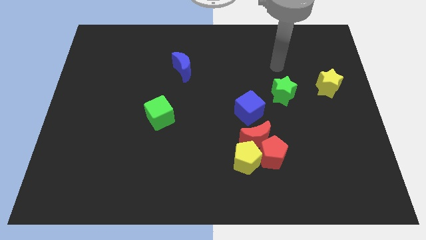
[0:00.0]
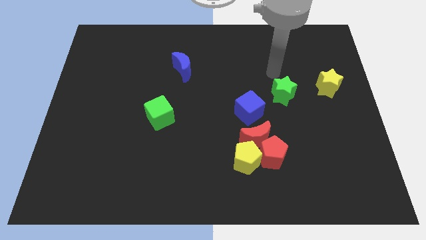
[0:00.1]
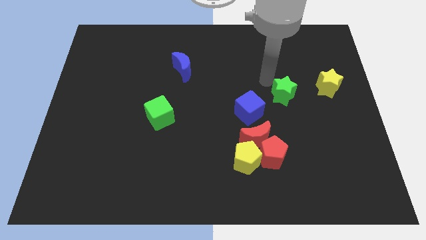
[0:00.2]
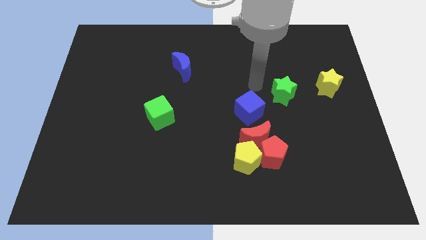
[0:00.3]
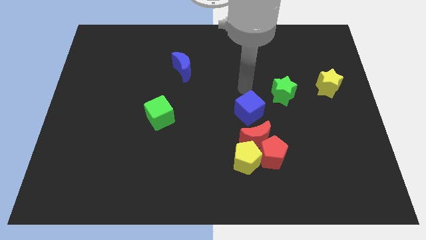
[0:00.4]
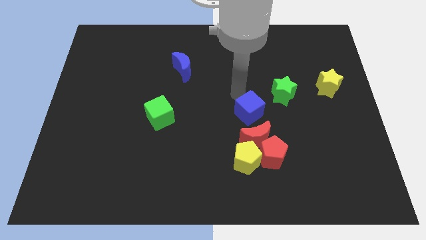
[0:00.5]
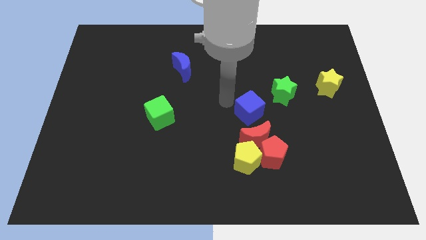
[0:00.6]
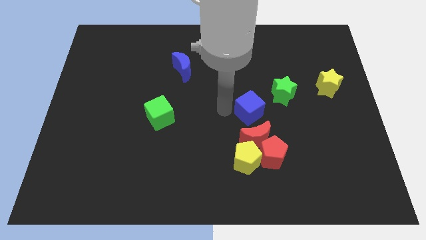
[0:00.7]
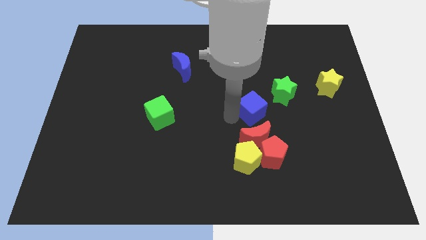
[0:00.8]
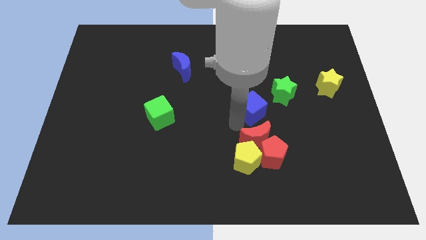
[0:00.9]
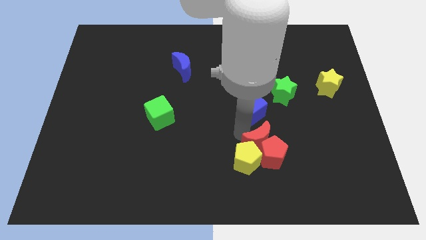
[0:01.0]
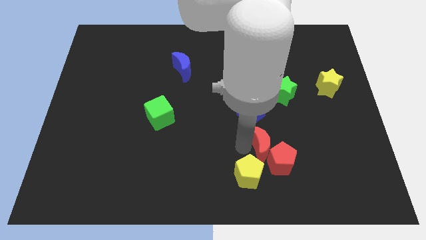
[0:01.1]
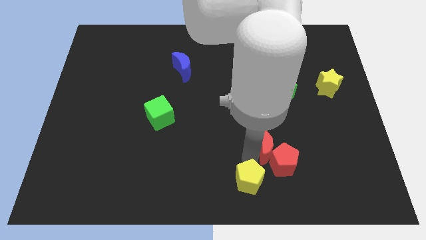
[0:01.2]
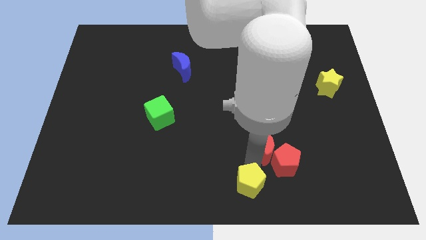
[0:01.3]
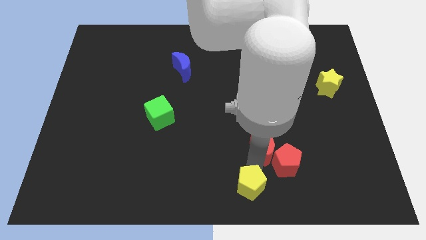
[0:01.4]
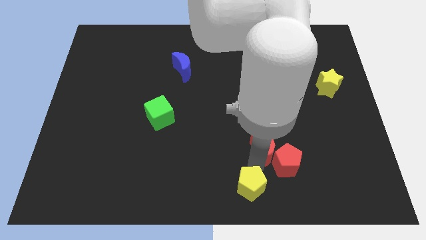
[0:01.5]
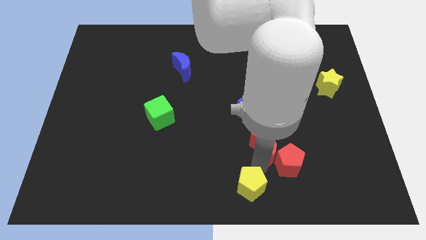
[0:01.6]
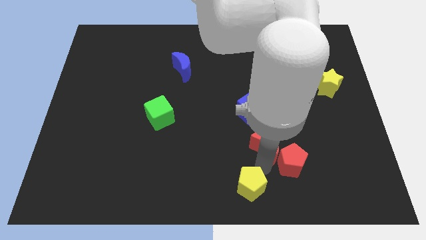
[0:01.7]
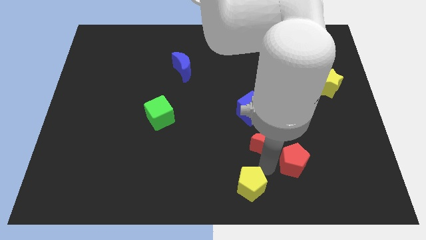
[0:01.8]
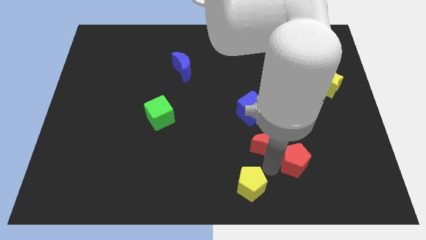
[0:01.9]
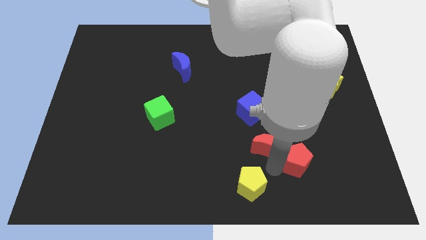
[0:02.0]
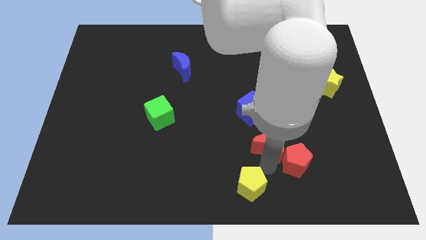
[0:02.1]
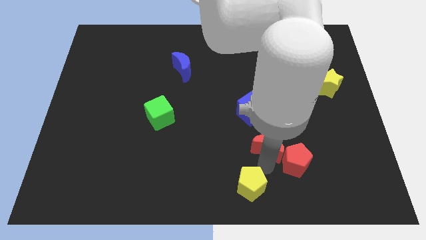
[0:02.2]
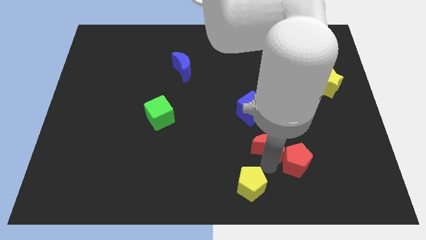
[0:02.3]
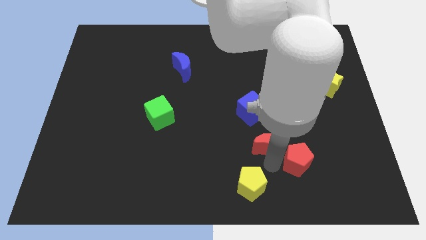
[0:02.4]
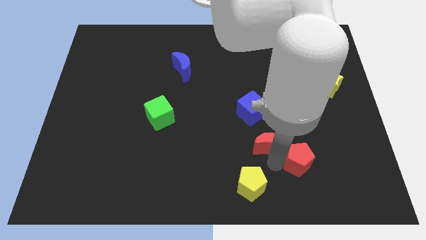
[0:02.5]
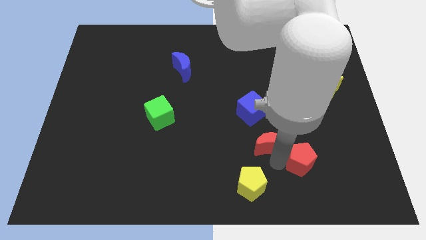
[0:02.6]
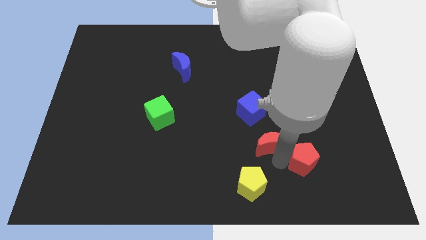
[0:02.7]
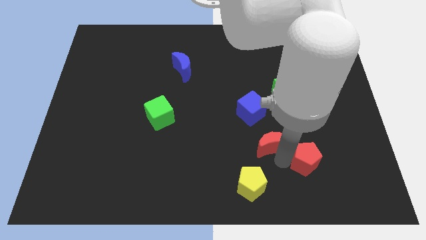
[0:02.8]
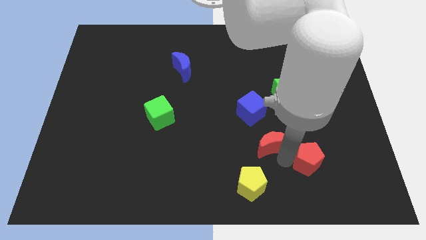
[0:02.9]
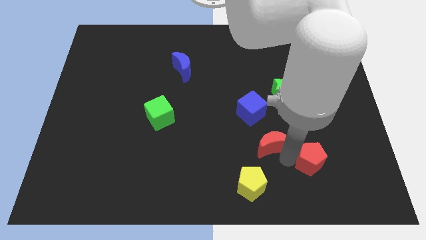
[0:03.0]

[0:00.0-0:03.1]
move the red pentagon away from the red moon and yellow pentagon

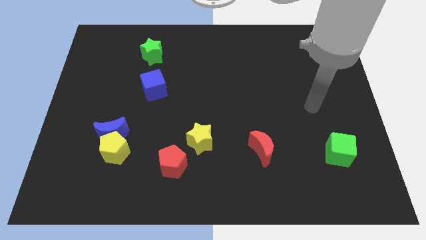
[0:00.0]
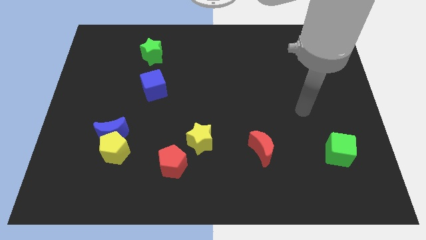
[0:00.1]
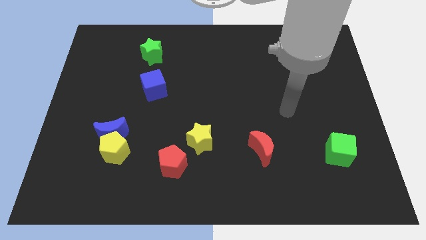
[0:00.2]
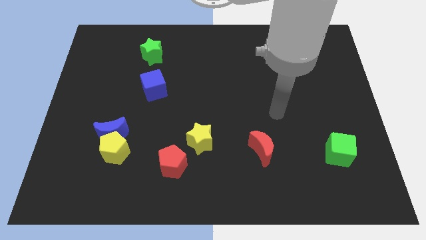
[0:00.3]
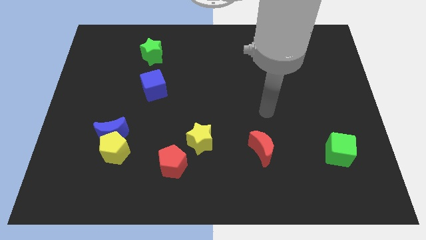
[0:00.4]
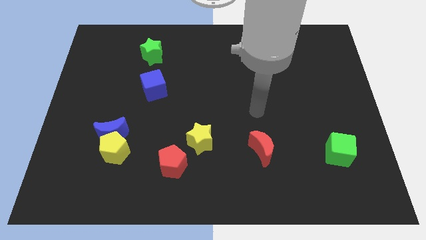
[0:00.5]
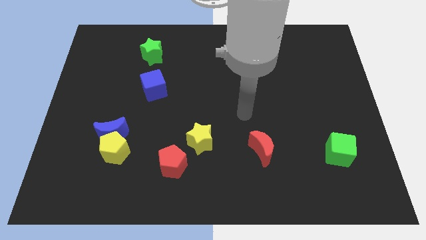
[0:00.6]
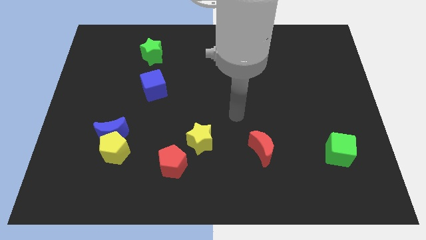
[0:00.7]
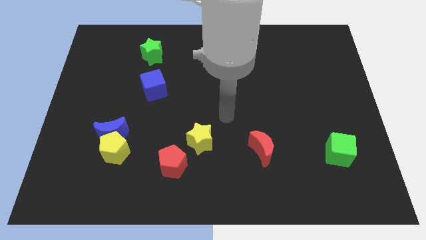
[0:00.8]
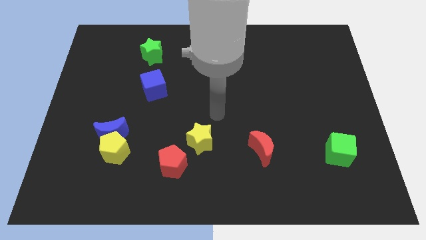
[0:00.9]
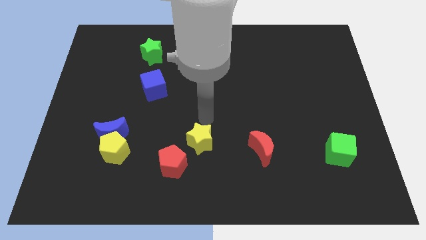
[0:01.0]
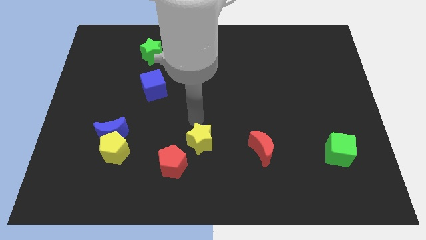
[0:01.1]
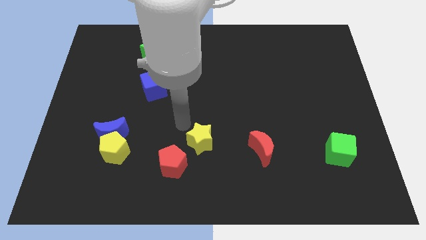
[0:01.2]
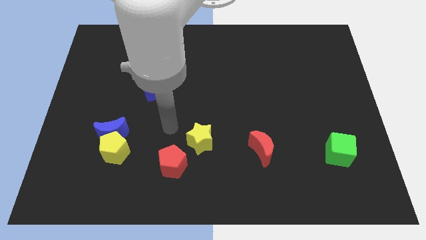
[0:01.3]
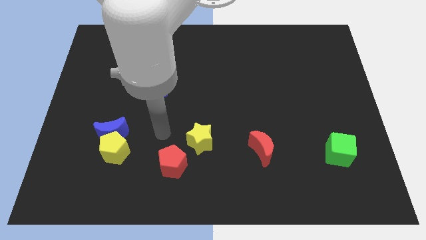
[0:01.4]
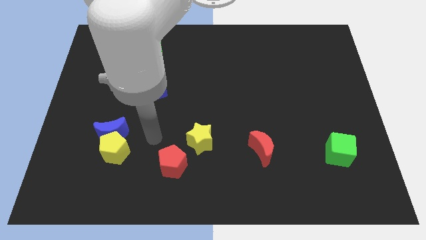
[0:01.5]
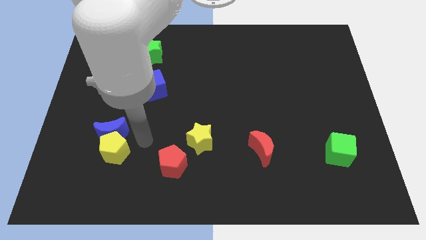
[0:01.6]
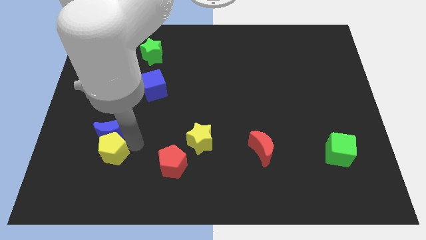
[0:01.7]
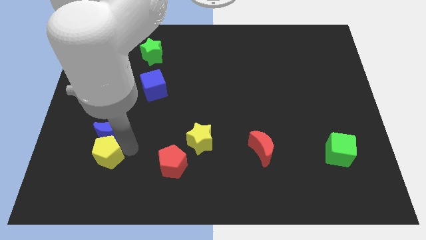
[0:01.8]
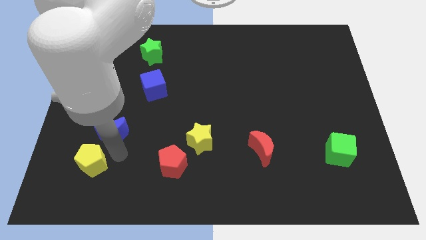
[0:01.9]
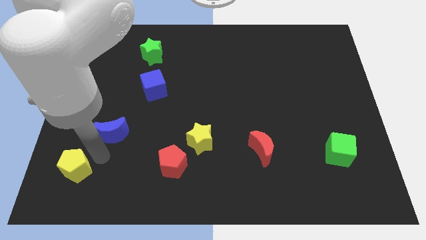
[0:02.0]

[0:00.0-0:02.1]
move the blue moon away from the yellow pentagon

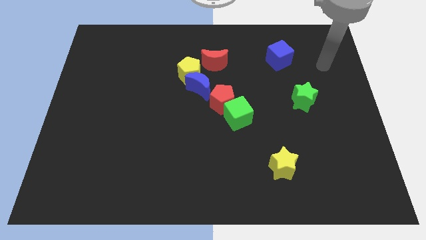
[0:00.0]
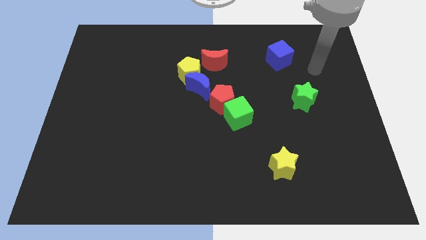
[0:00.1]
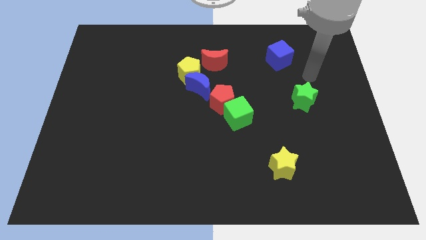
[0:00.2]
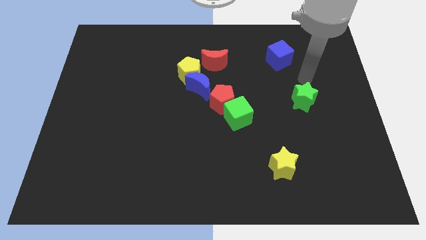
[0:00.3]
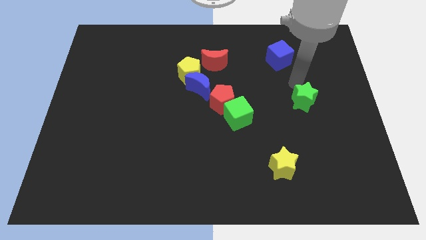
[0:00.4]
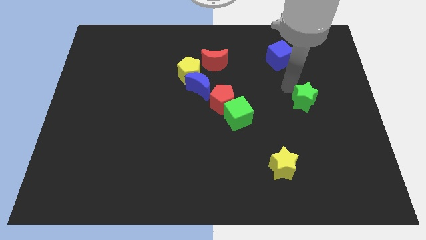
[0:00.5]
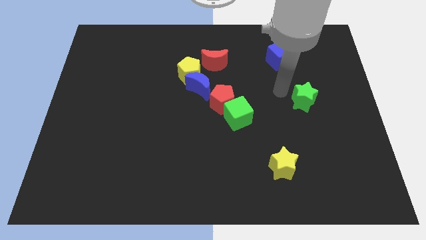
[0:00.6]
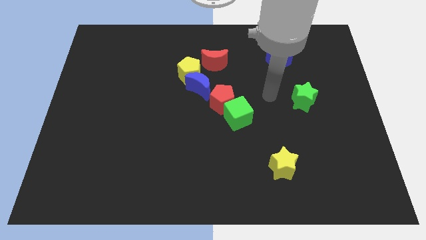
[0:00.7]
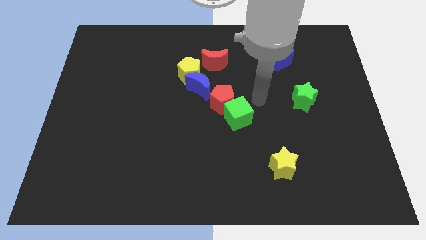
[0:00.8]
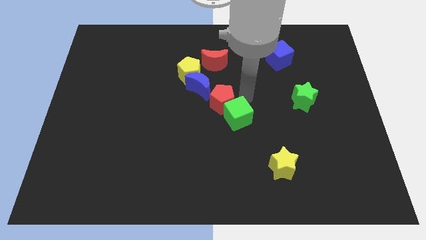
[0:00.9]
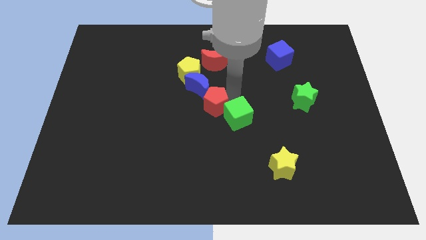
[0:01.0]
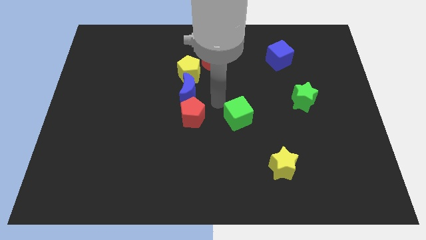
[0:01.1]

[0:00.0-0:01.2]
pull the green cube apart from the red pentagon

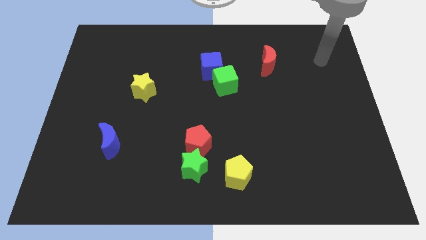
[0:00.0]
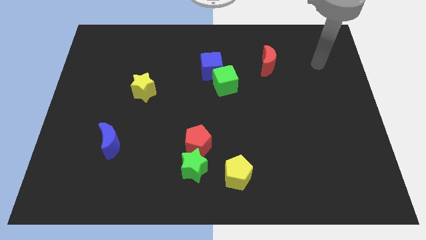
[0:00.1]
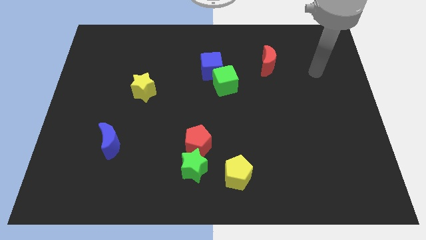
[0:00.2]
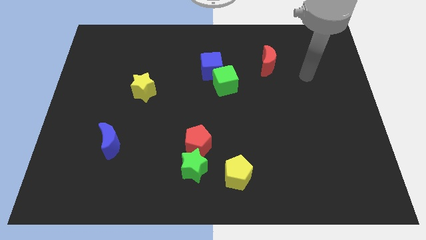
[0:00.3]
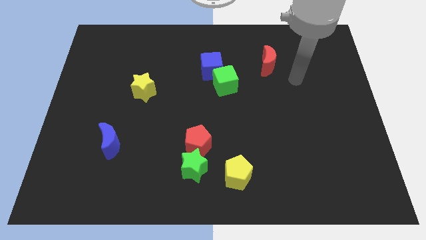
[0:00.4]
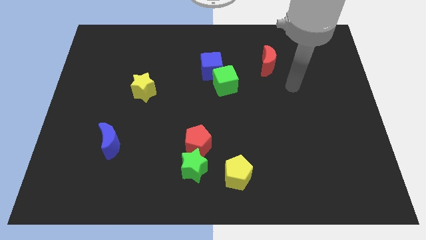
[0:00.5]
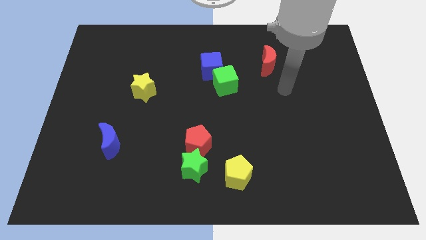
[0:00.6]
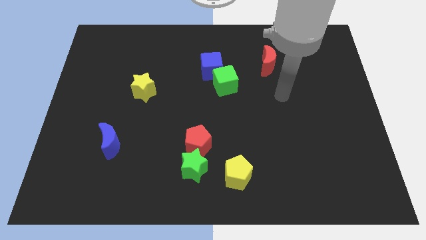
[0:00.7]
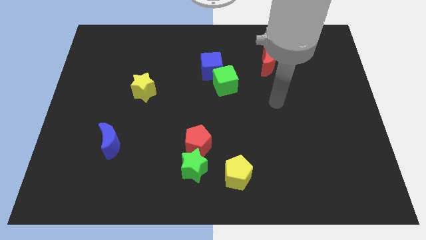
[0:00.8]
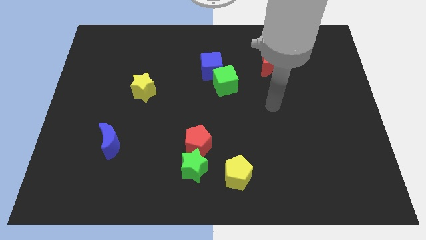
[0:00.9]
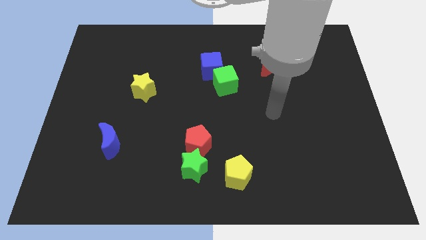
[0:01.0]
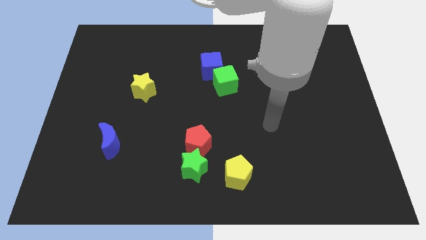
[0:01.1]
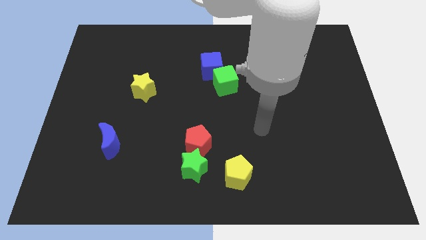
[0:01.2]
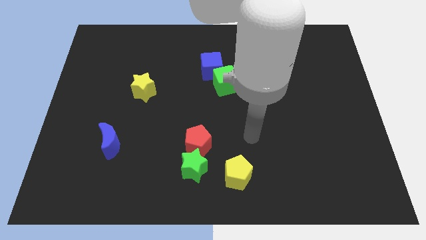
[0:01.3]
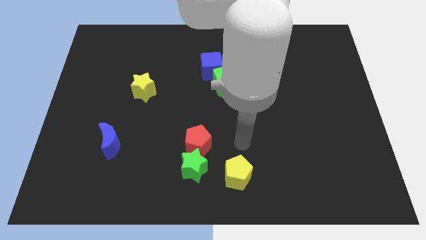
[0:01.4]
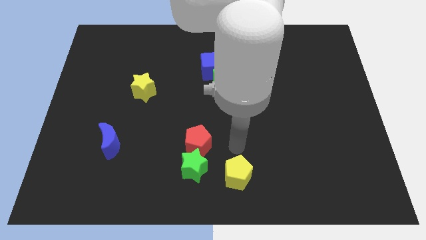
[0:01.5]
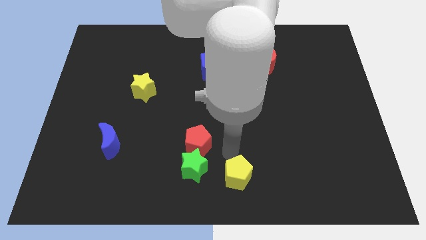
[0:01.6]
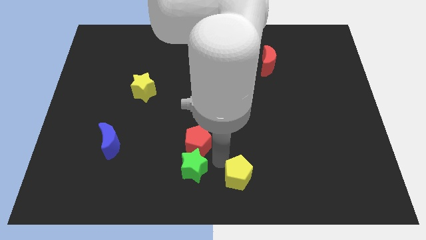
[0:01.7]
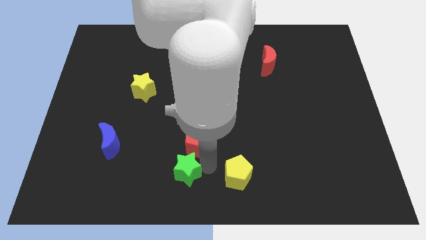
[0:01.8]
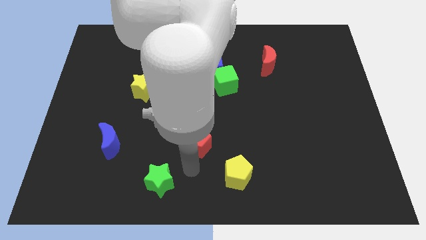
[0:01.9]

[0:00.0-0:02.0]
separate the red pentagon from the green star

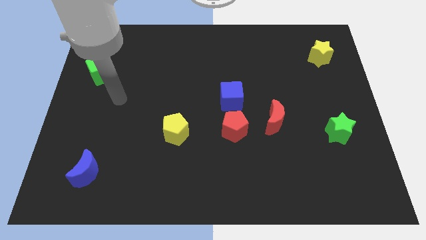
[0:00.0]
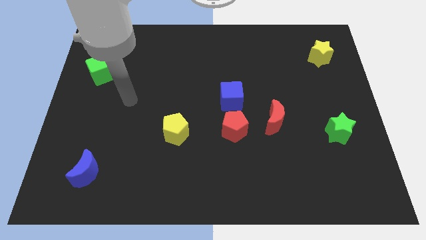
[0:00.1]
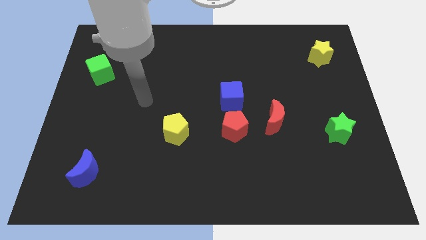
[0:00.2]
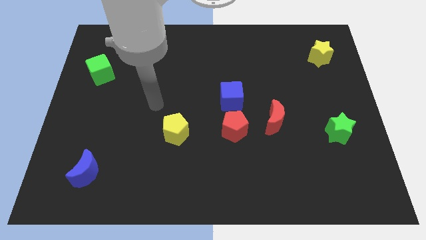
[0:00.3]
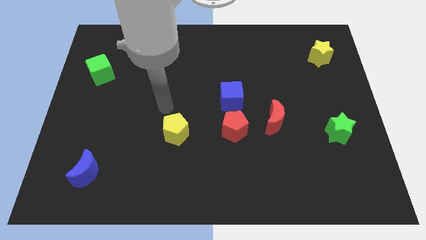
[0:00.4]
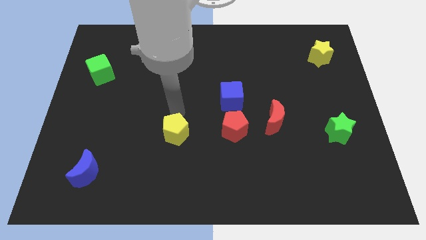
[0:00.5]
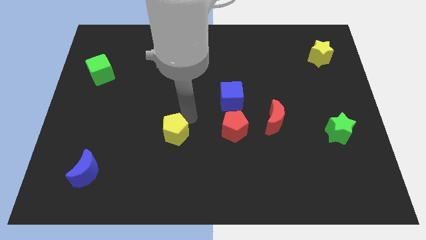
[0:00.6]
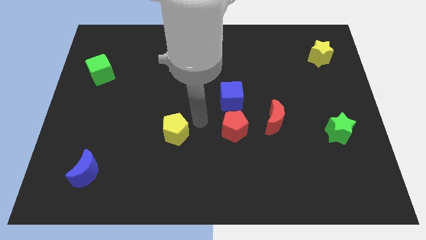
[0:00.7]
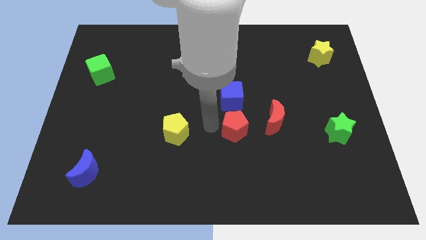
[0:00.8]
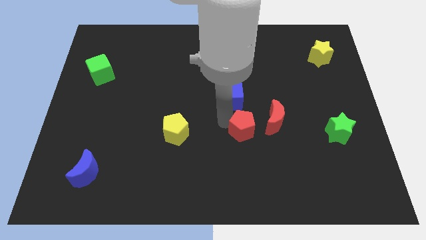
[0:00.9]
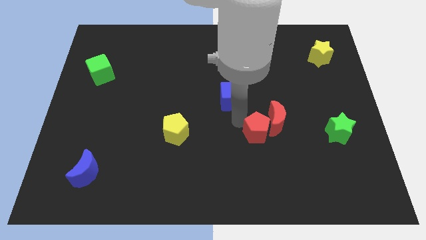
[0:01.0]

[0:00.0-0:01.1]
pull the blue cube apart from the red pentagon
